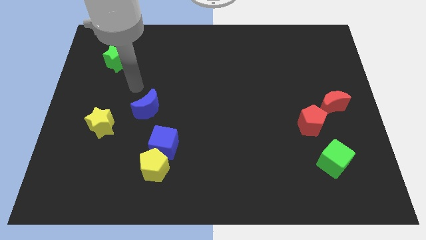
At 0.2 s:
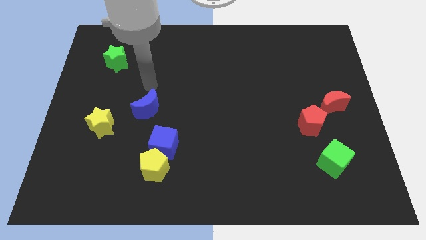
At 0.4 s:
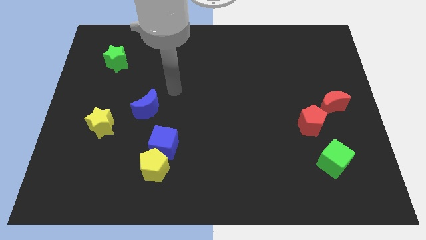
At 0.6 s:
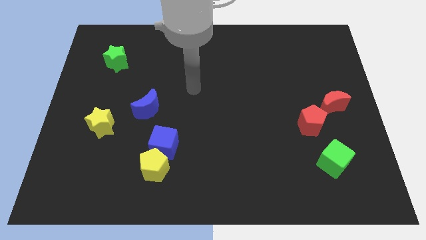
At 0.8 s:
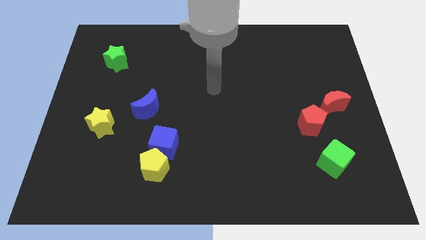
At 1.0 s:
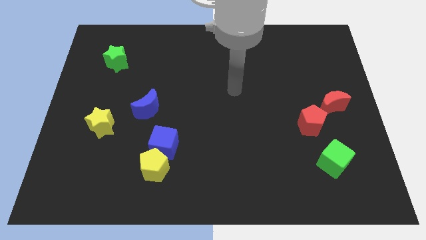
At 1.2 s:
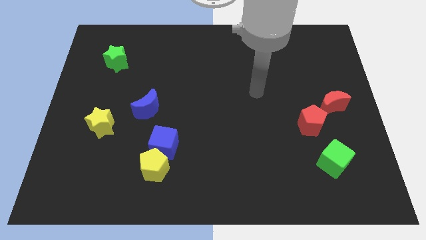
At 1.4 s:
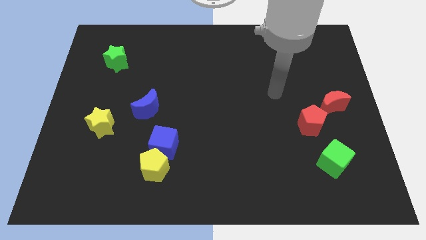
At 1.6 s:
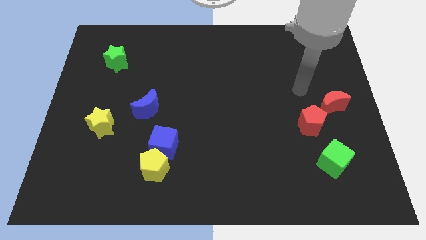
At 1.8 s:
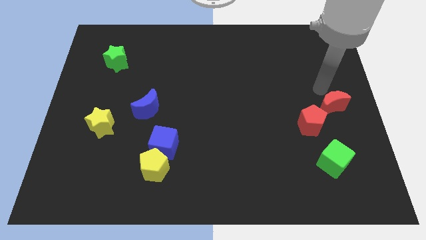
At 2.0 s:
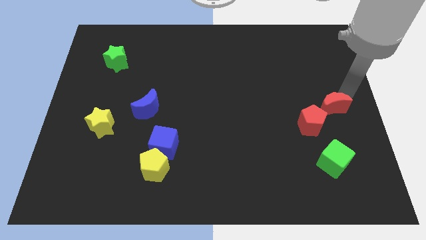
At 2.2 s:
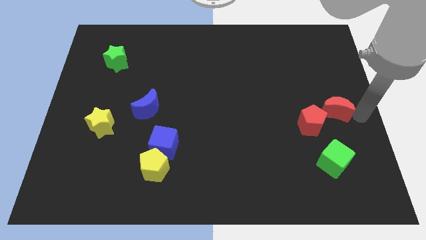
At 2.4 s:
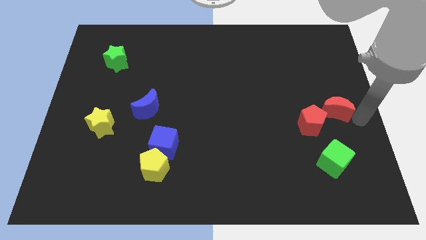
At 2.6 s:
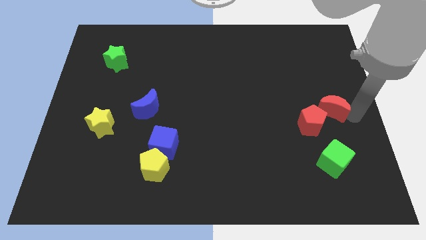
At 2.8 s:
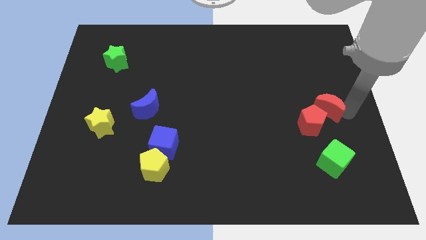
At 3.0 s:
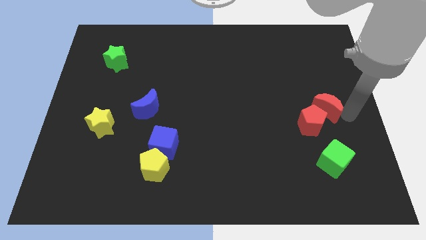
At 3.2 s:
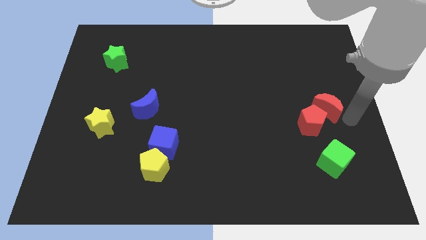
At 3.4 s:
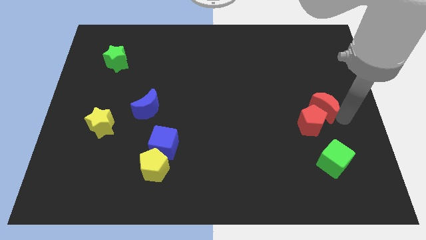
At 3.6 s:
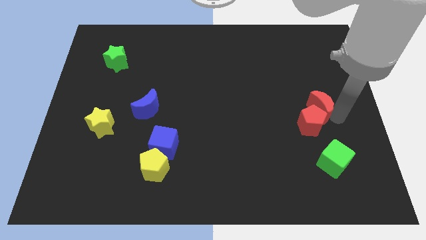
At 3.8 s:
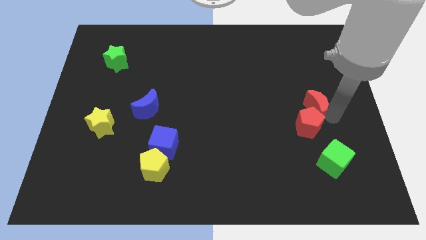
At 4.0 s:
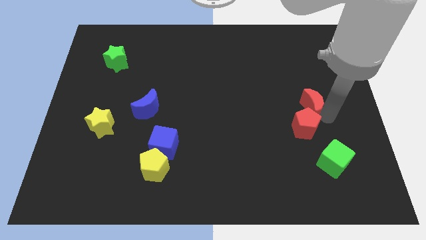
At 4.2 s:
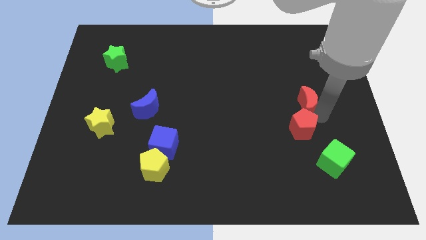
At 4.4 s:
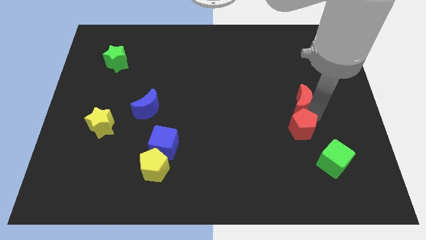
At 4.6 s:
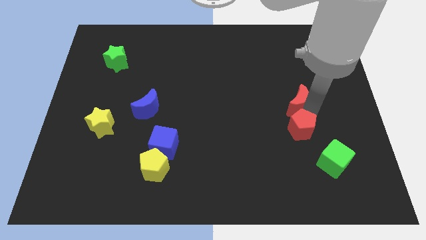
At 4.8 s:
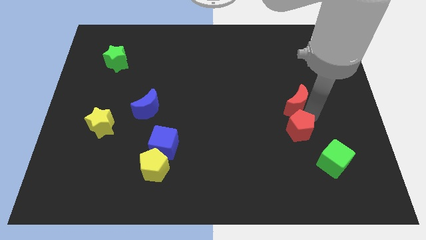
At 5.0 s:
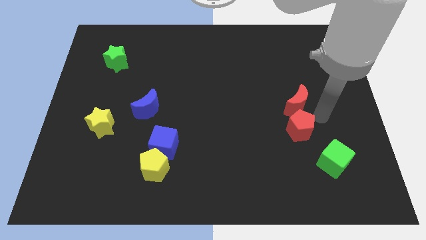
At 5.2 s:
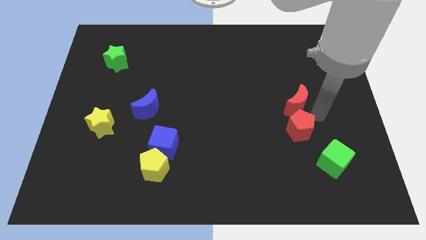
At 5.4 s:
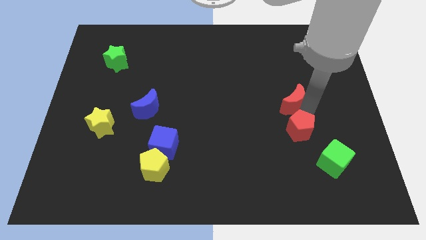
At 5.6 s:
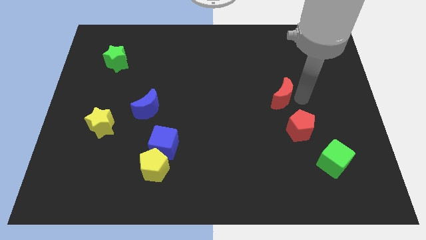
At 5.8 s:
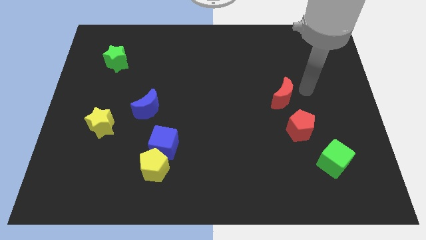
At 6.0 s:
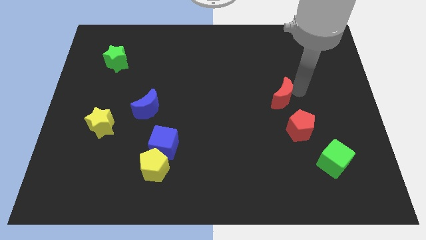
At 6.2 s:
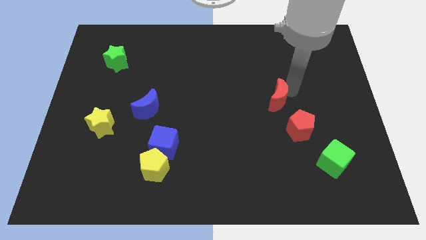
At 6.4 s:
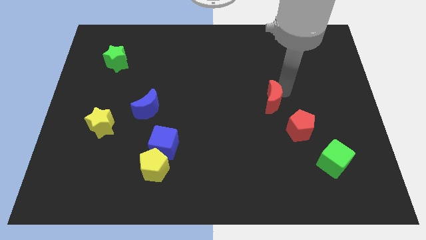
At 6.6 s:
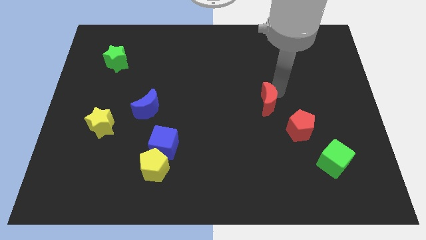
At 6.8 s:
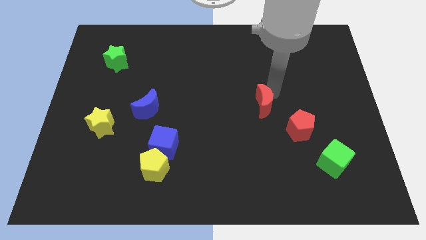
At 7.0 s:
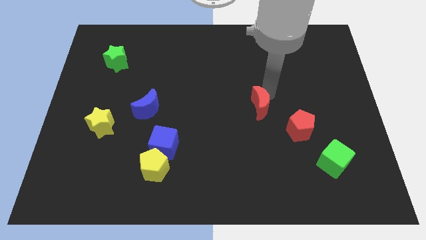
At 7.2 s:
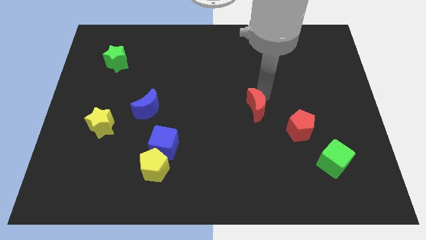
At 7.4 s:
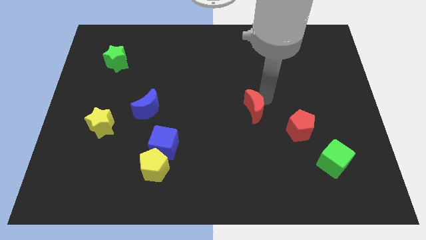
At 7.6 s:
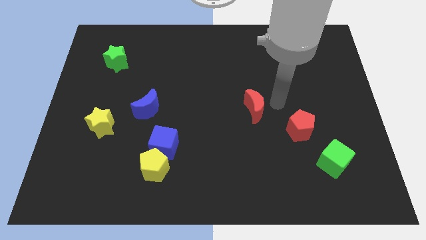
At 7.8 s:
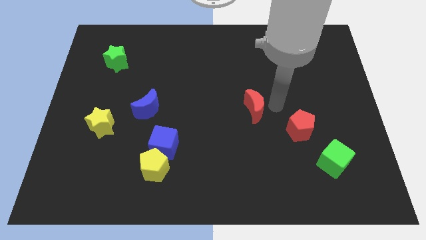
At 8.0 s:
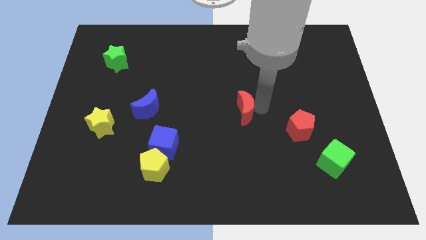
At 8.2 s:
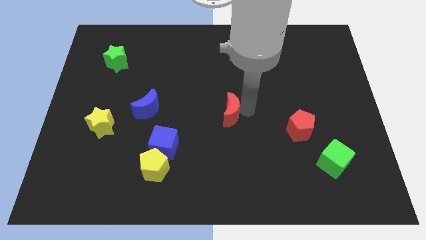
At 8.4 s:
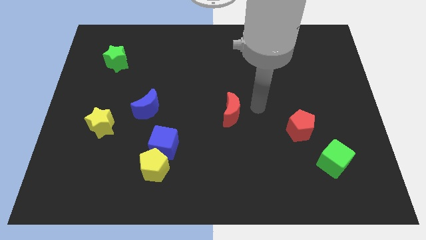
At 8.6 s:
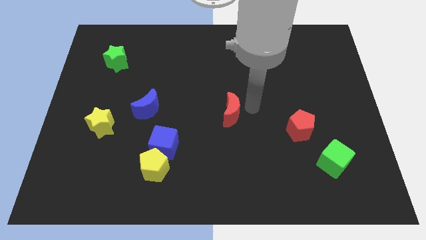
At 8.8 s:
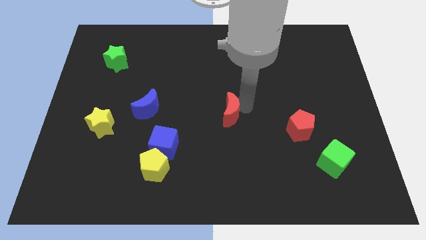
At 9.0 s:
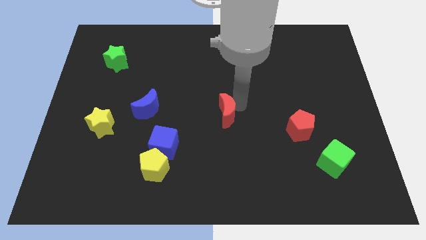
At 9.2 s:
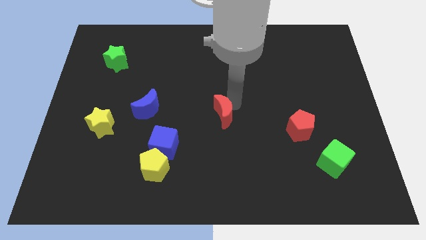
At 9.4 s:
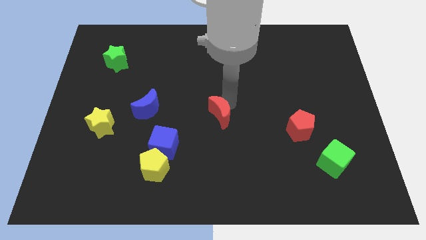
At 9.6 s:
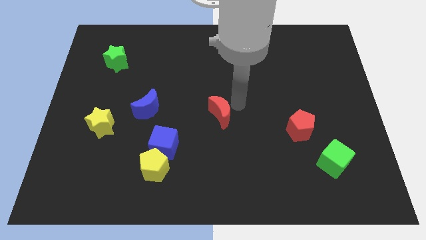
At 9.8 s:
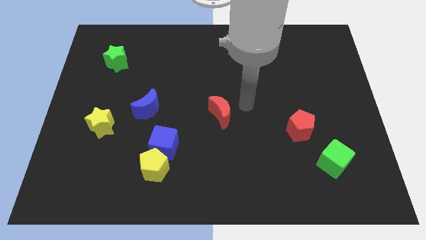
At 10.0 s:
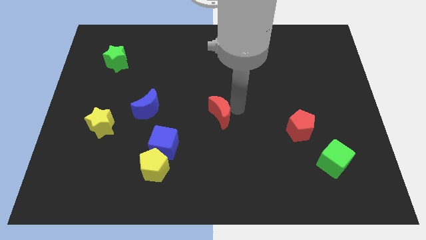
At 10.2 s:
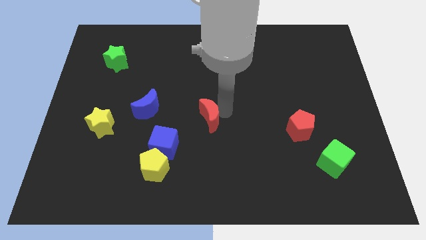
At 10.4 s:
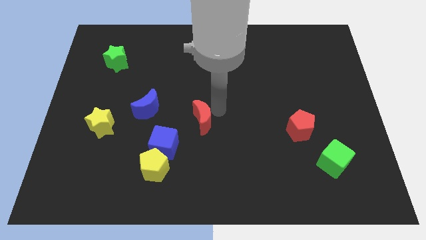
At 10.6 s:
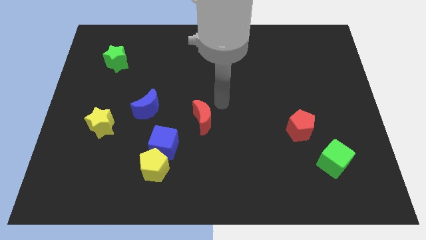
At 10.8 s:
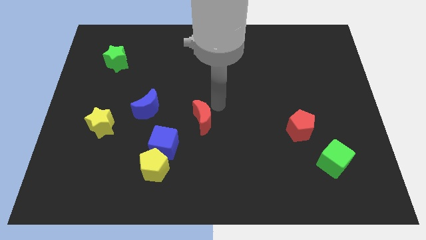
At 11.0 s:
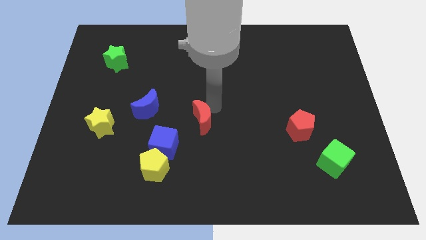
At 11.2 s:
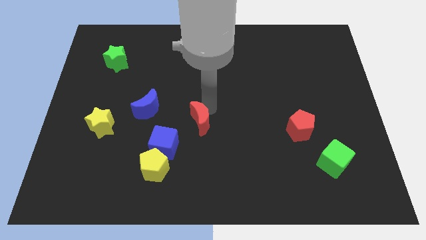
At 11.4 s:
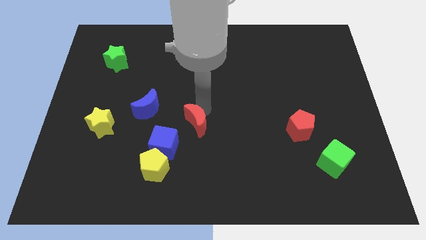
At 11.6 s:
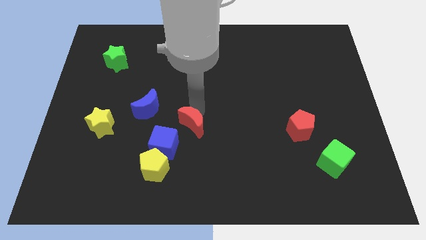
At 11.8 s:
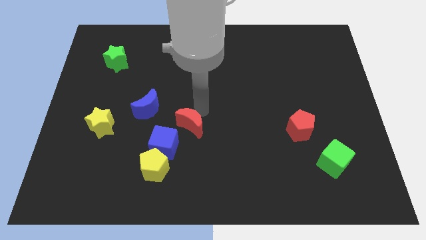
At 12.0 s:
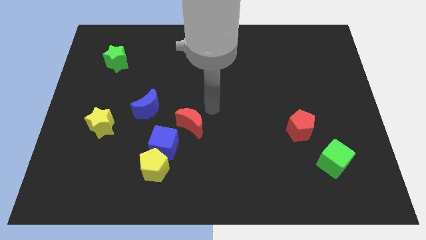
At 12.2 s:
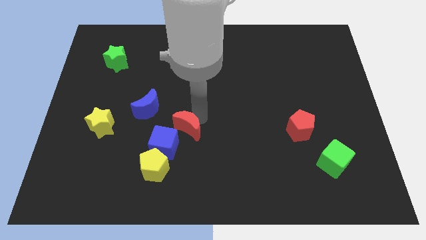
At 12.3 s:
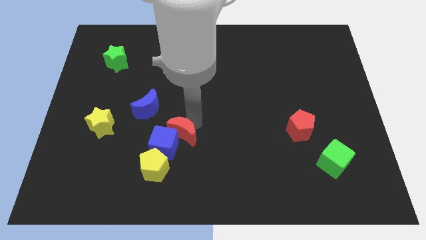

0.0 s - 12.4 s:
slide the red moon towards the blue cube

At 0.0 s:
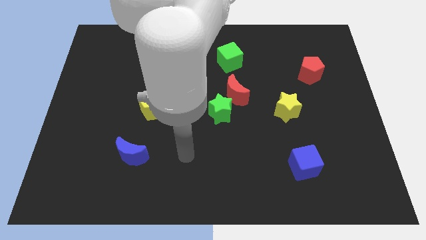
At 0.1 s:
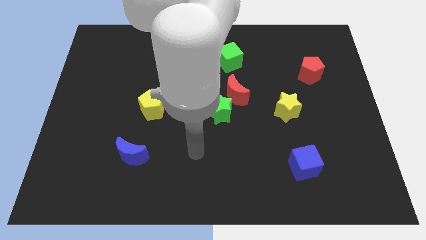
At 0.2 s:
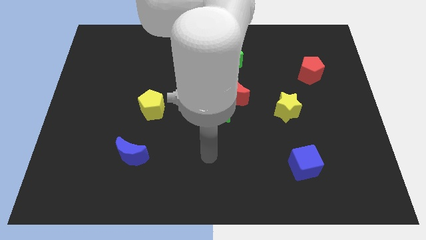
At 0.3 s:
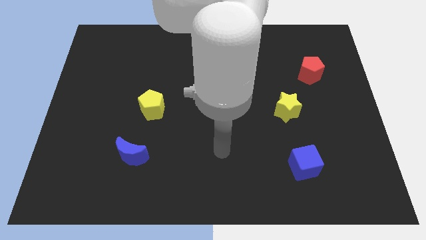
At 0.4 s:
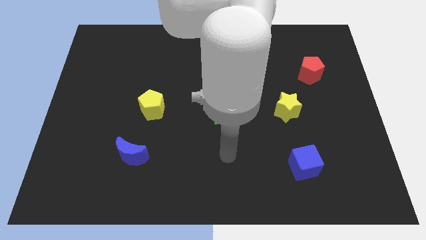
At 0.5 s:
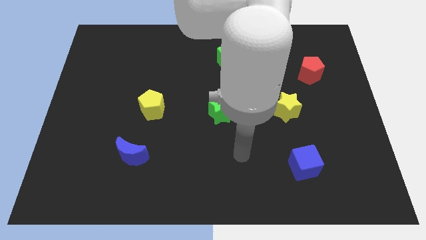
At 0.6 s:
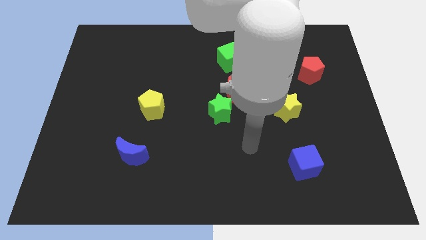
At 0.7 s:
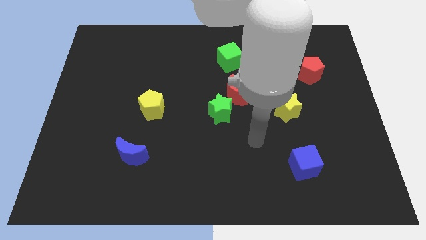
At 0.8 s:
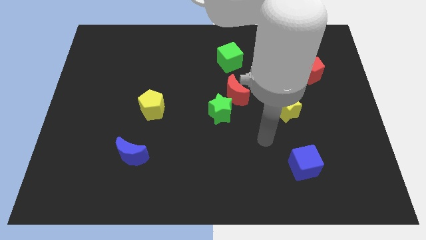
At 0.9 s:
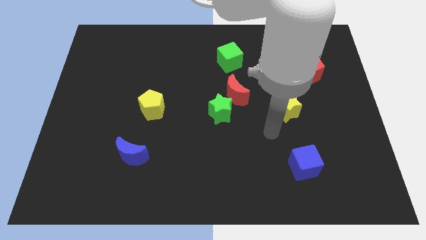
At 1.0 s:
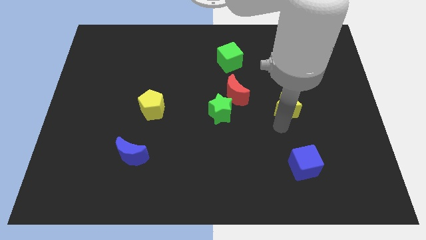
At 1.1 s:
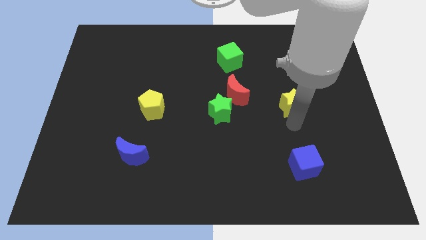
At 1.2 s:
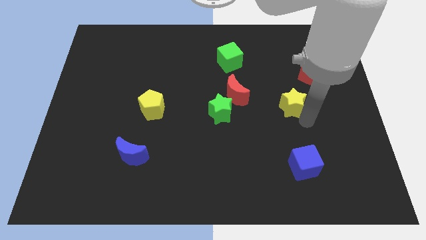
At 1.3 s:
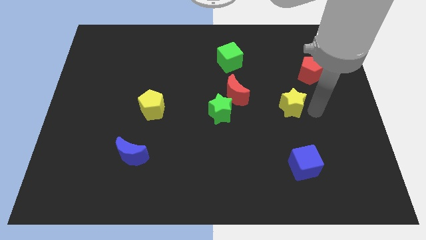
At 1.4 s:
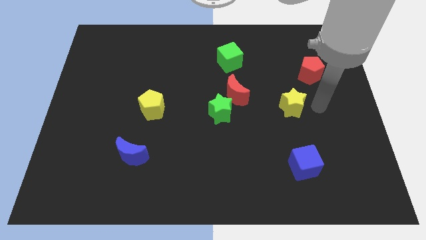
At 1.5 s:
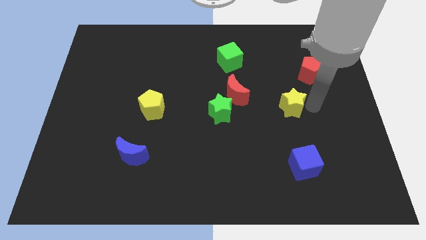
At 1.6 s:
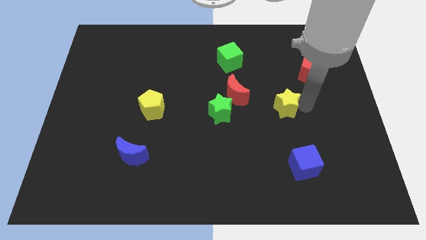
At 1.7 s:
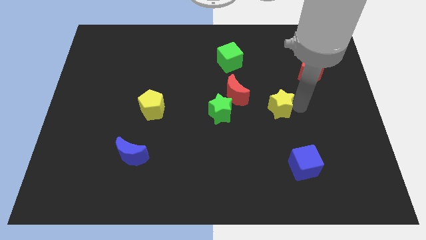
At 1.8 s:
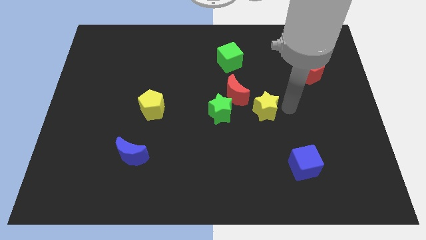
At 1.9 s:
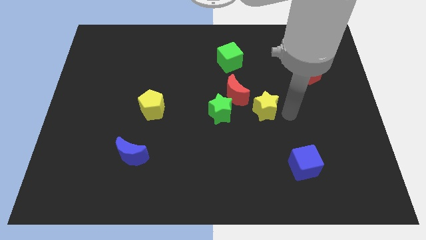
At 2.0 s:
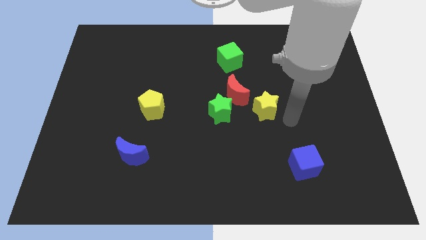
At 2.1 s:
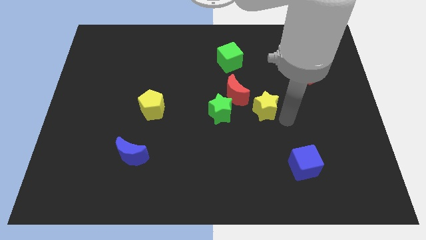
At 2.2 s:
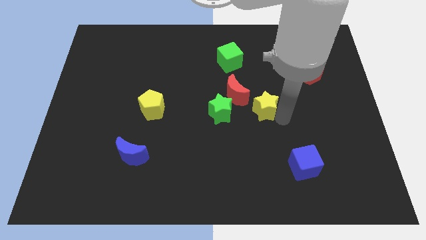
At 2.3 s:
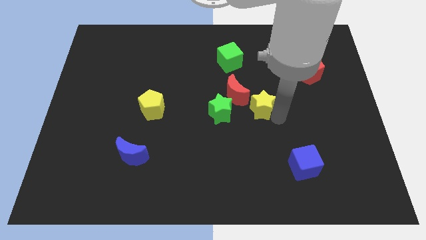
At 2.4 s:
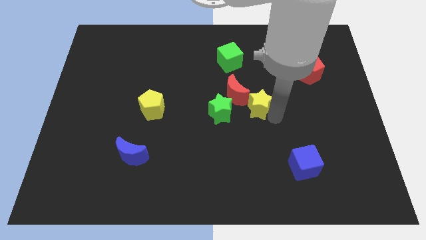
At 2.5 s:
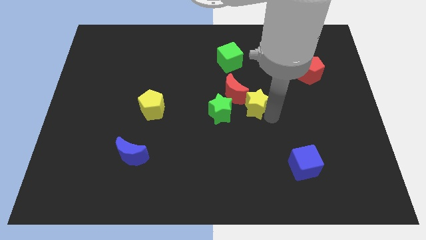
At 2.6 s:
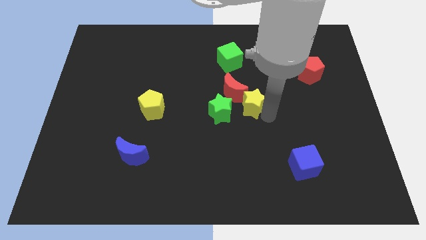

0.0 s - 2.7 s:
push the yellow star towards the red moon
